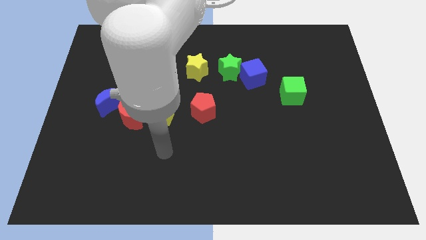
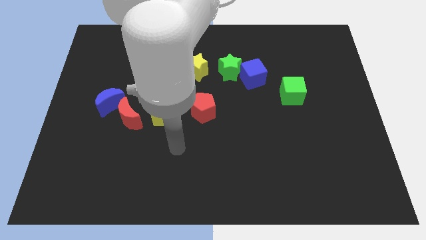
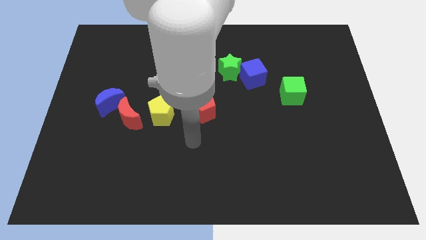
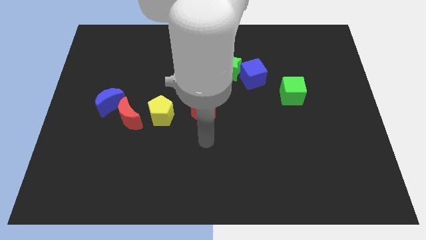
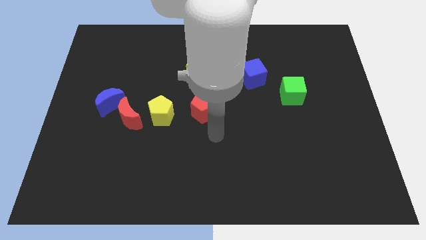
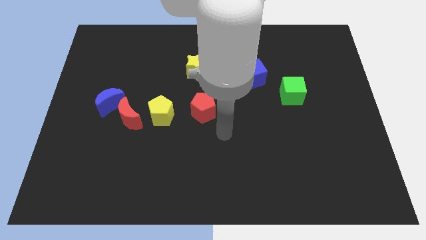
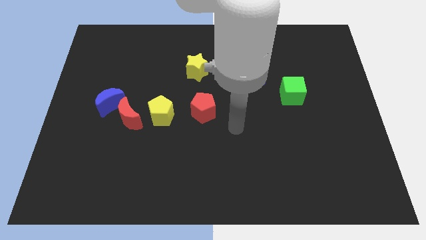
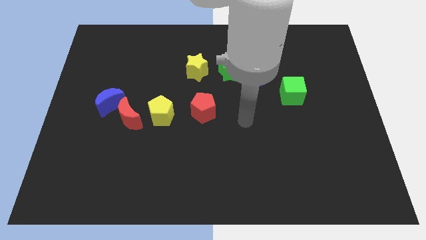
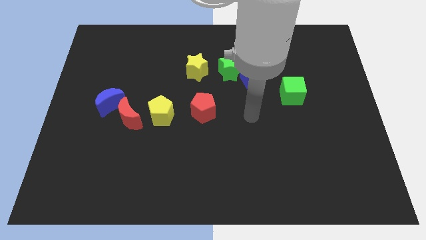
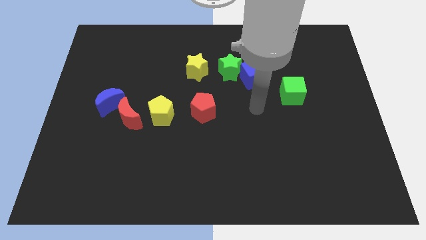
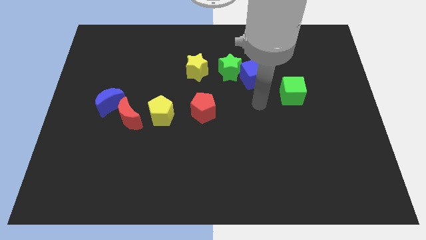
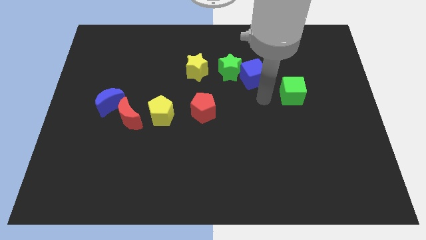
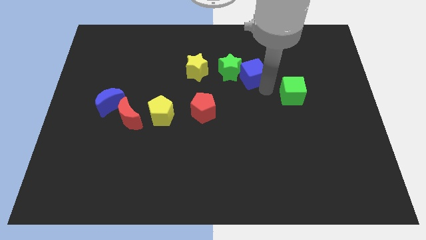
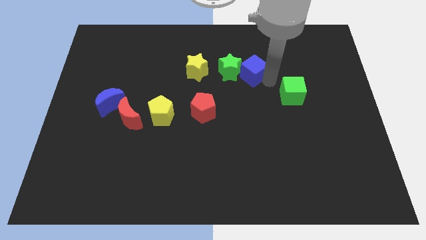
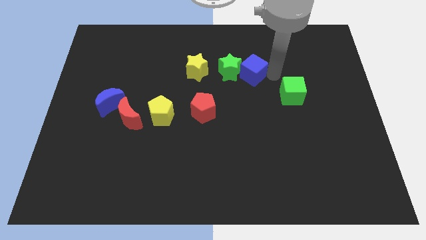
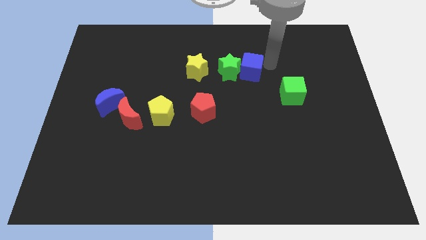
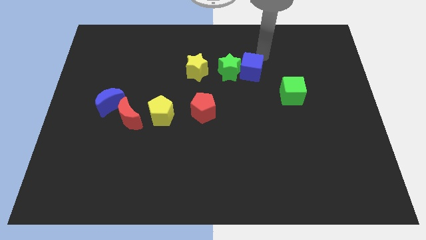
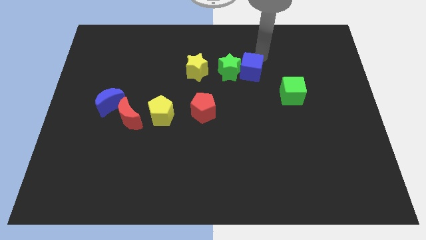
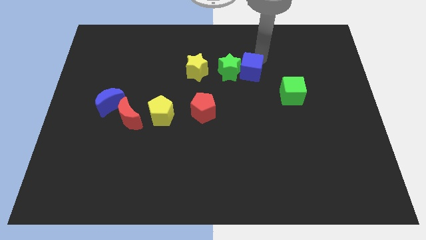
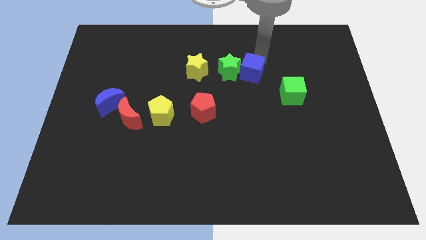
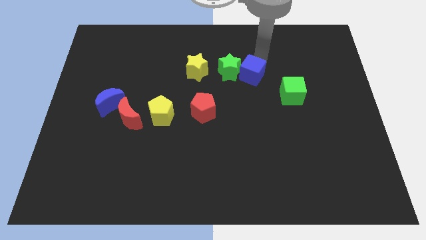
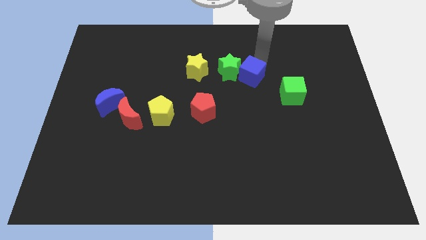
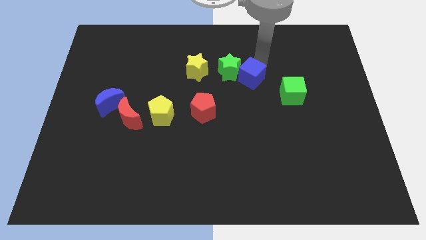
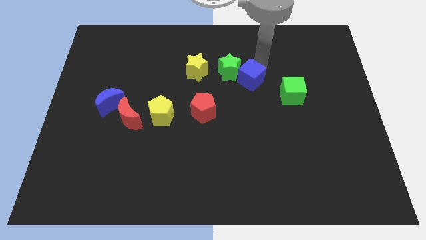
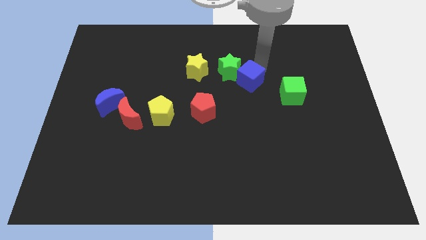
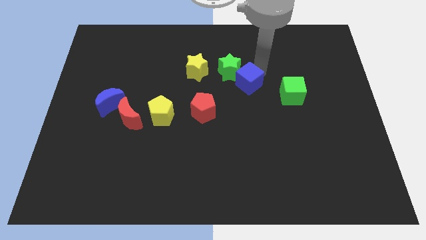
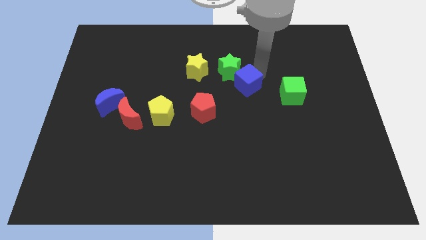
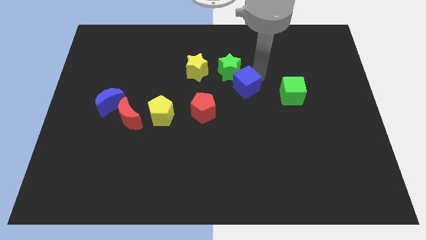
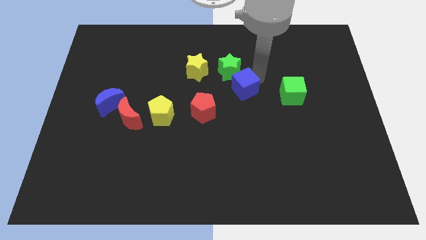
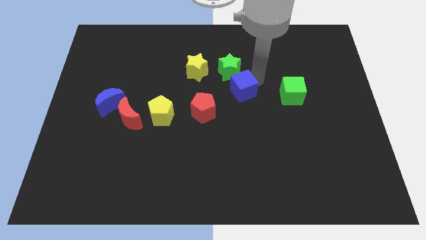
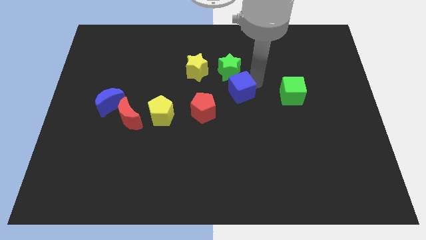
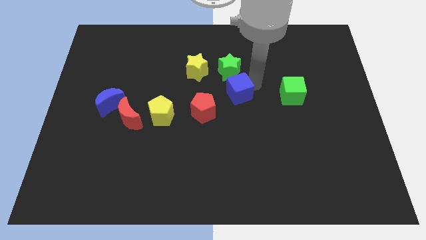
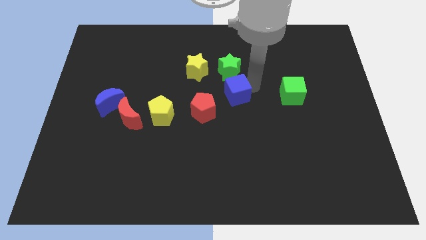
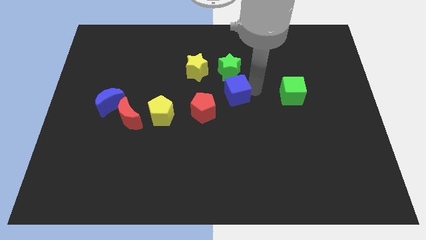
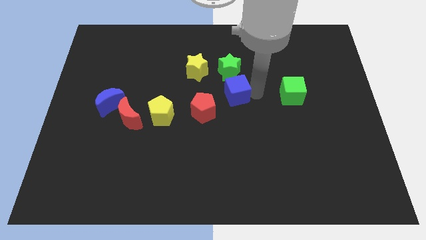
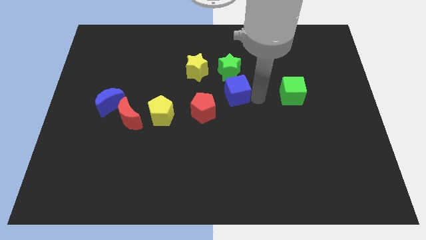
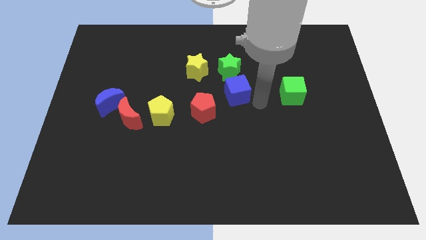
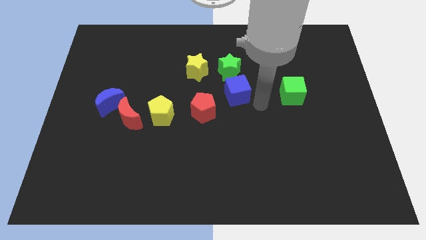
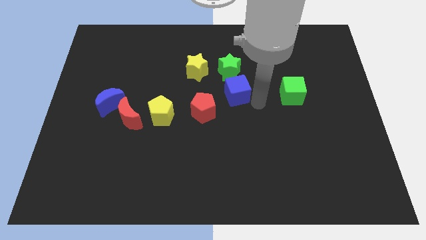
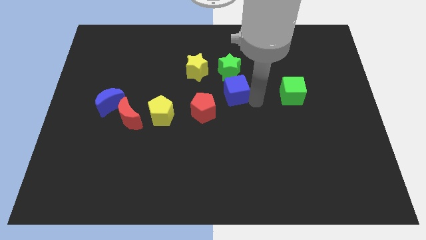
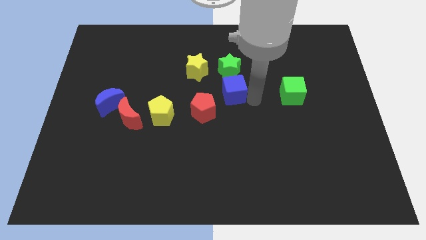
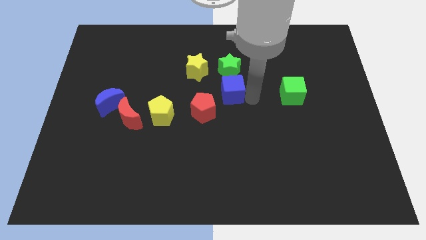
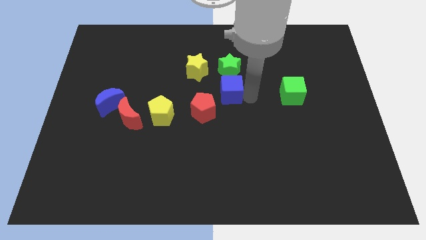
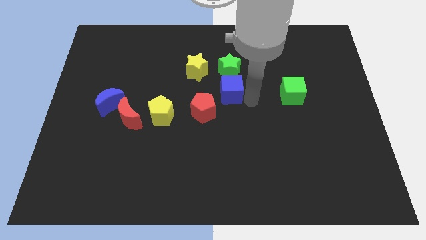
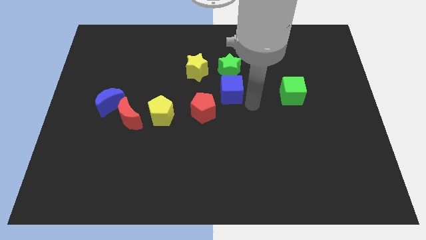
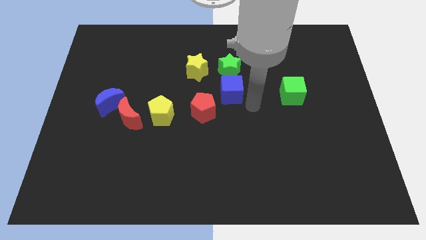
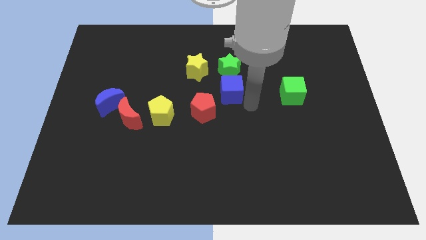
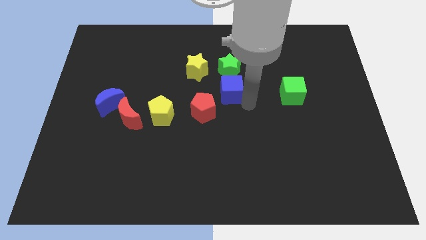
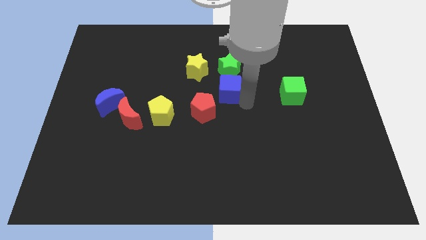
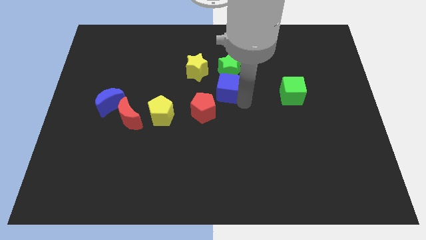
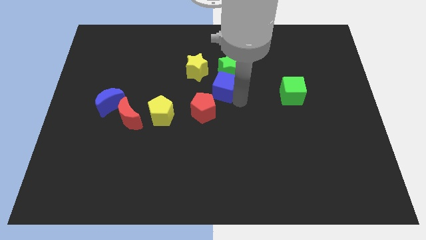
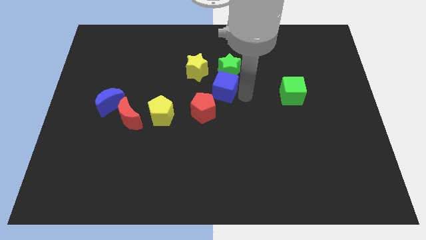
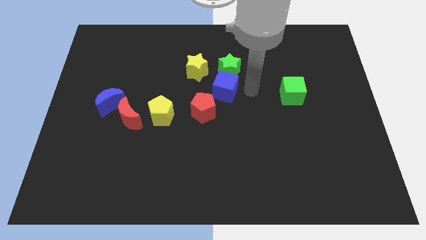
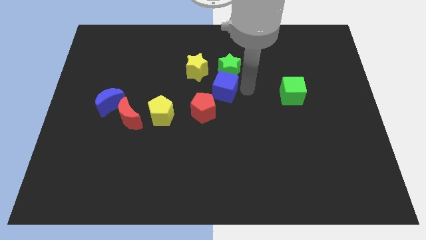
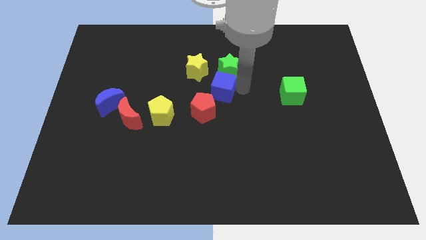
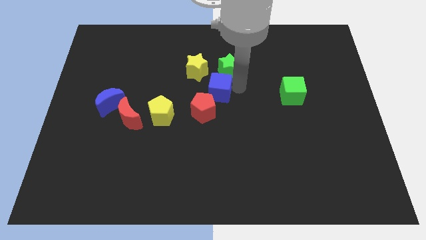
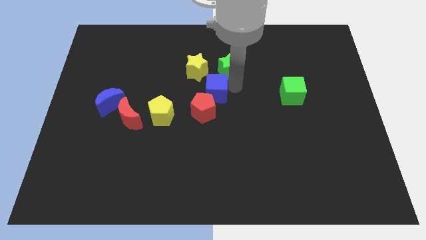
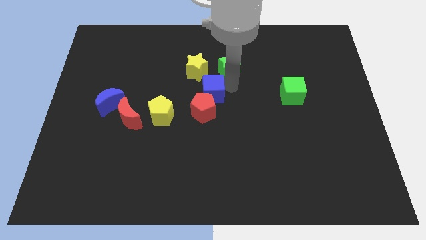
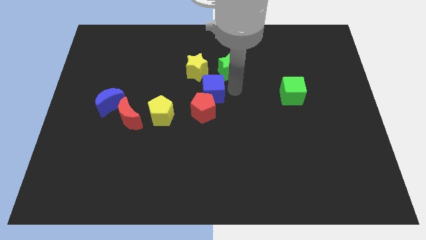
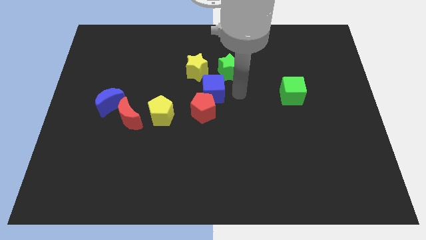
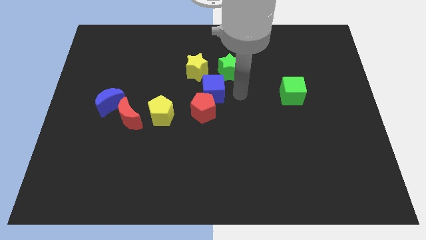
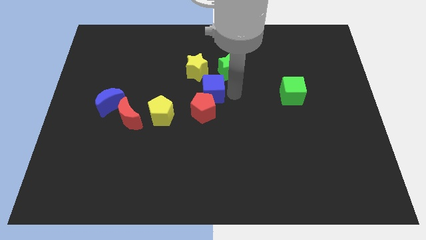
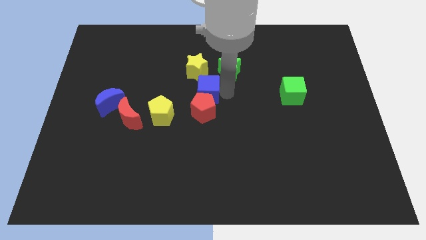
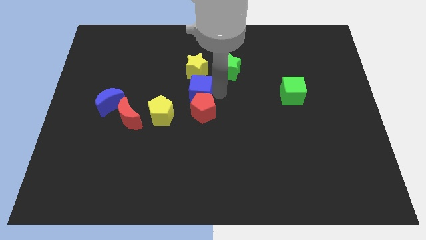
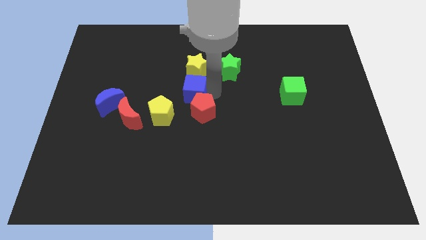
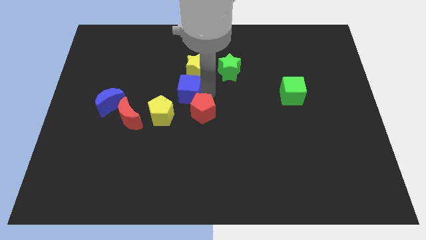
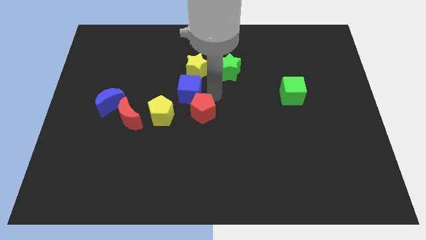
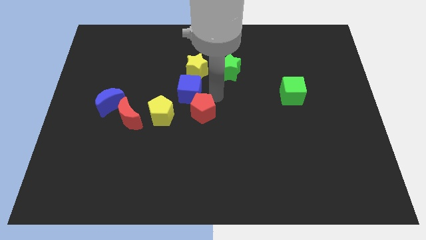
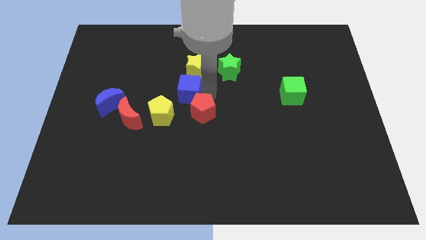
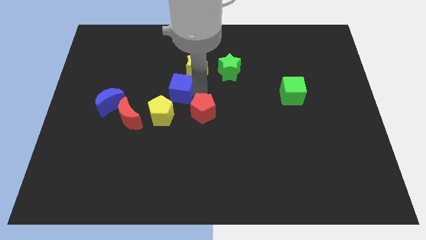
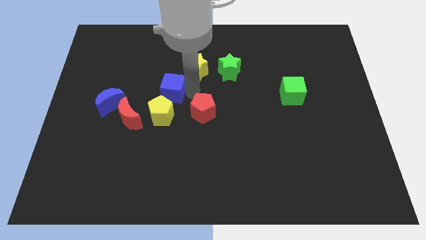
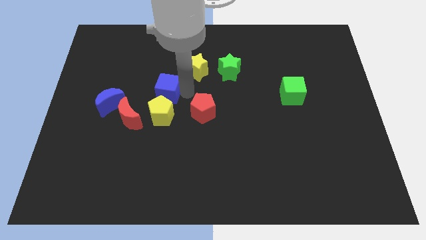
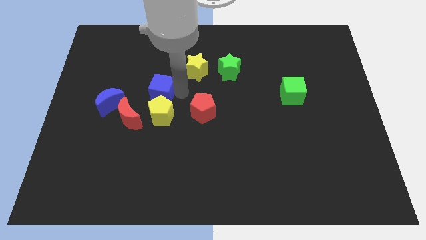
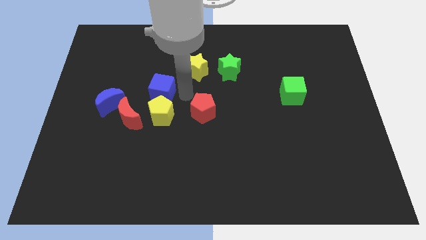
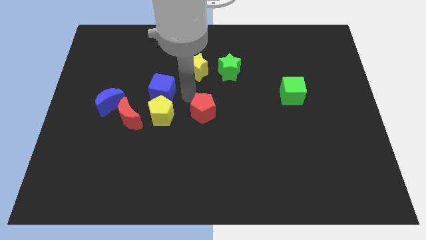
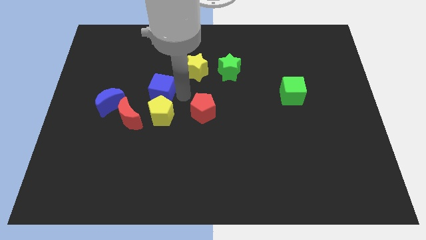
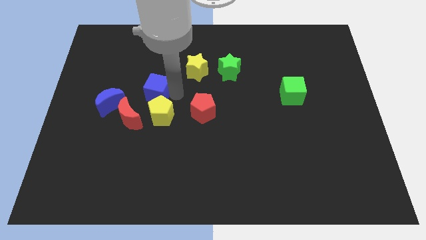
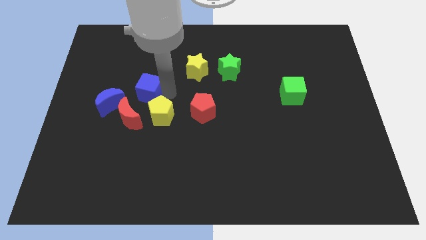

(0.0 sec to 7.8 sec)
push the blue cube diagonally up and to the right of the blue moon
